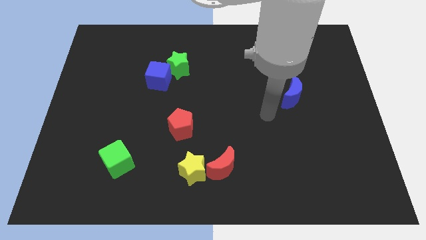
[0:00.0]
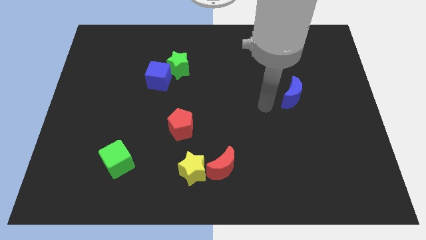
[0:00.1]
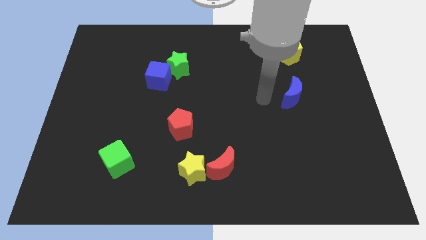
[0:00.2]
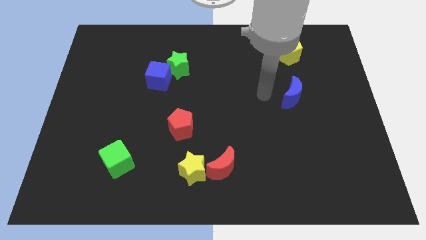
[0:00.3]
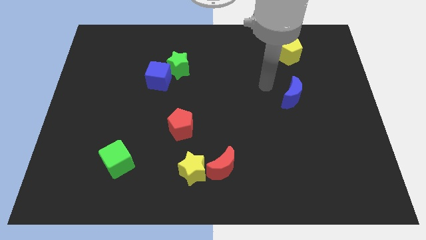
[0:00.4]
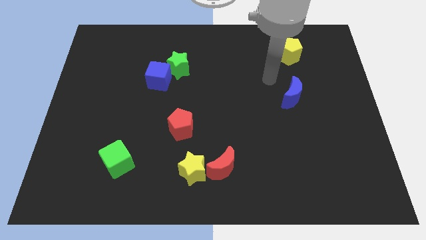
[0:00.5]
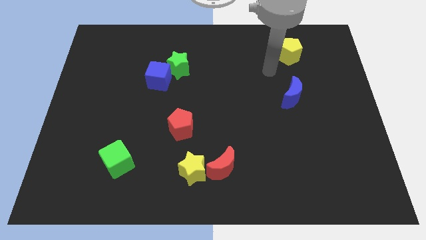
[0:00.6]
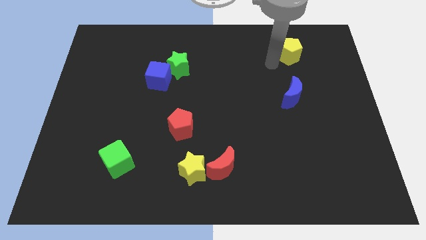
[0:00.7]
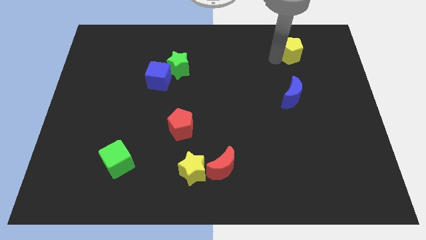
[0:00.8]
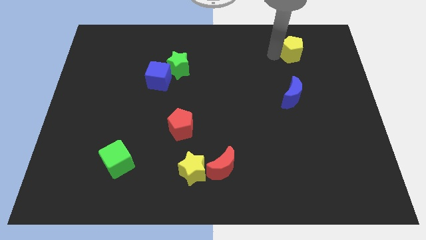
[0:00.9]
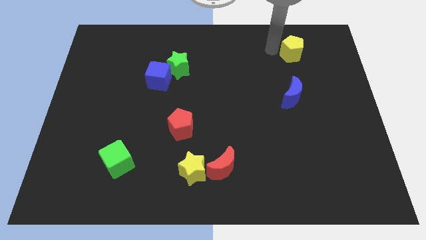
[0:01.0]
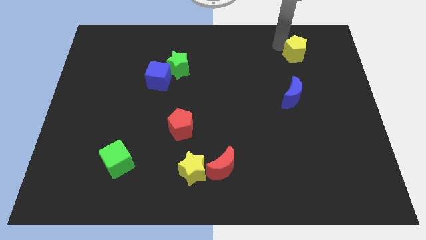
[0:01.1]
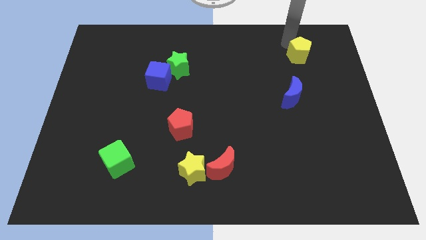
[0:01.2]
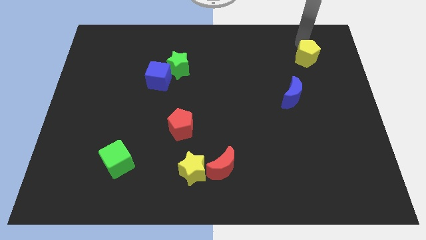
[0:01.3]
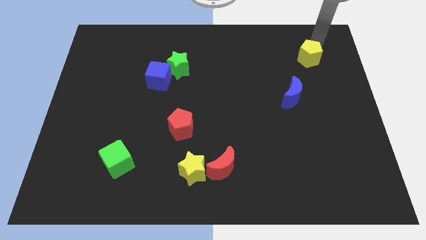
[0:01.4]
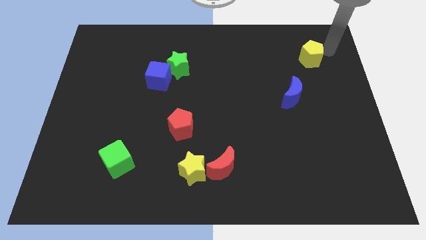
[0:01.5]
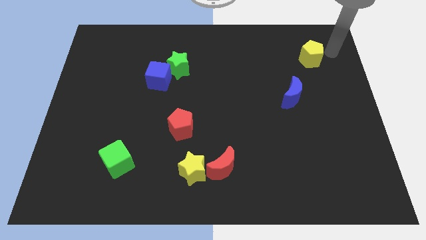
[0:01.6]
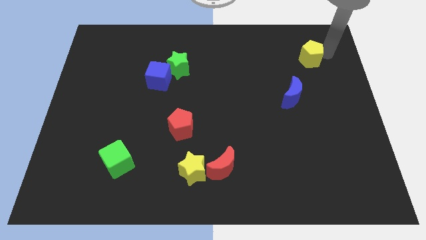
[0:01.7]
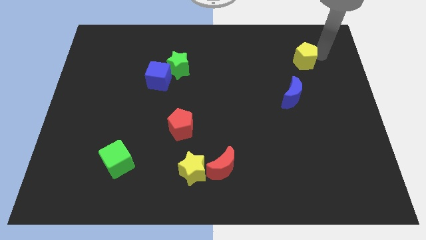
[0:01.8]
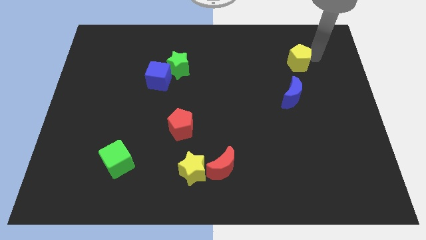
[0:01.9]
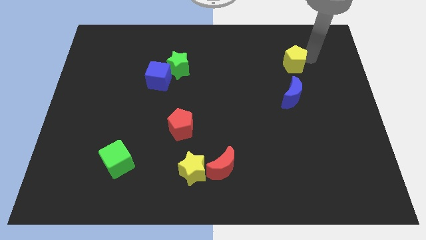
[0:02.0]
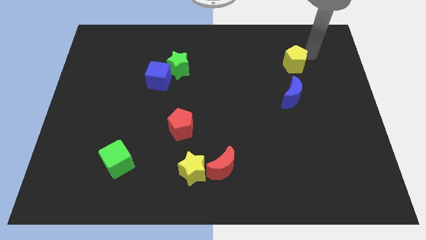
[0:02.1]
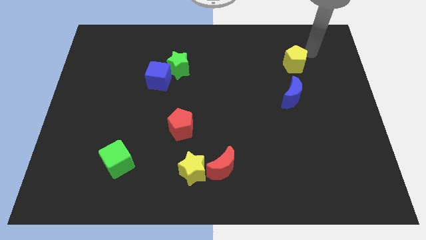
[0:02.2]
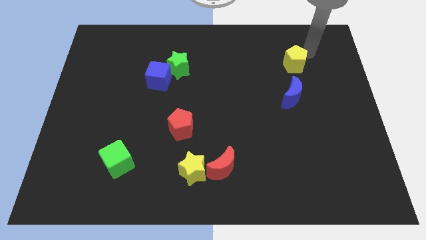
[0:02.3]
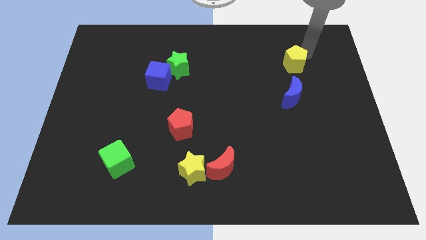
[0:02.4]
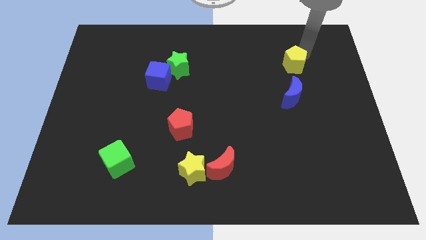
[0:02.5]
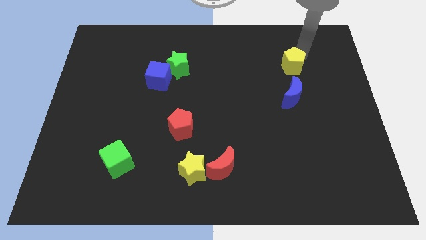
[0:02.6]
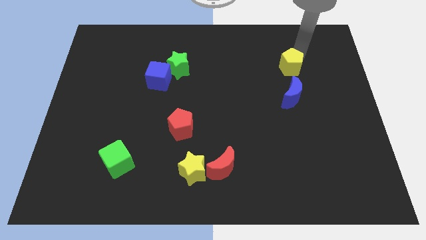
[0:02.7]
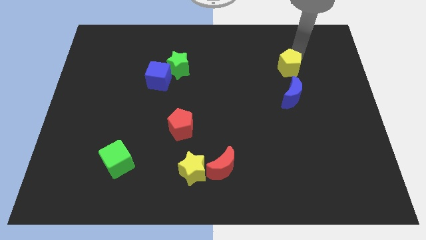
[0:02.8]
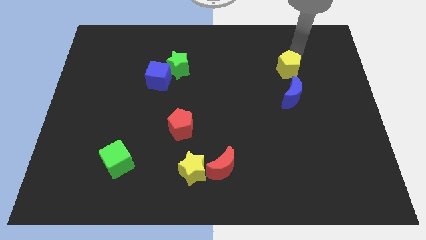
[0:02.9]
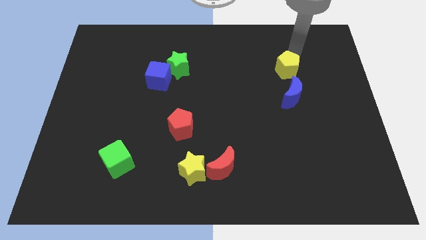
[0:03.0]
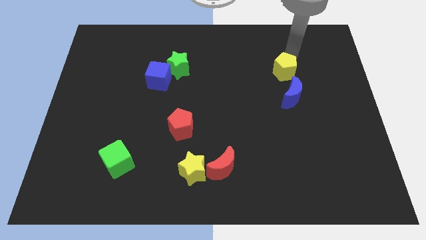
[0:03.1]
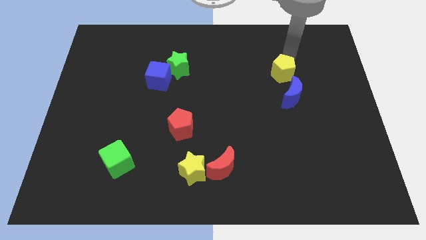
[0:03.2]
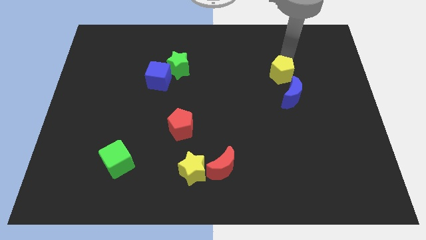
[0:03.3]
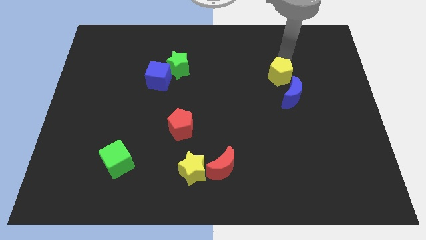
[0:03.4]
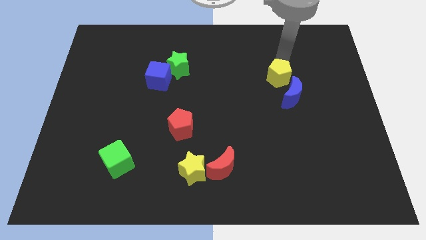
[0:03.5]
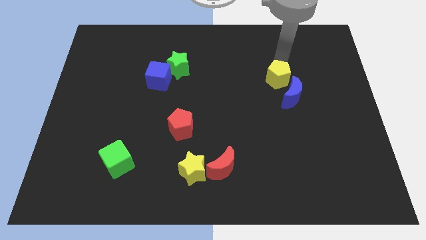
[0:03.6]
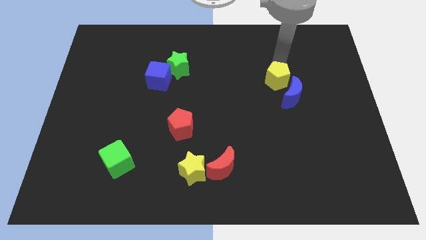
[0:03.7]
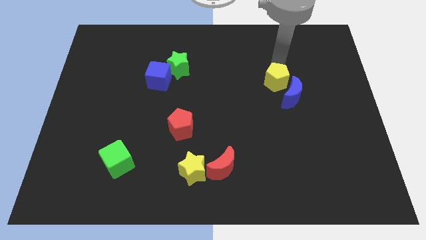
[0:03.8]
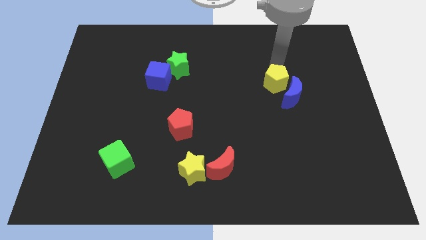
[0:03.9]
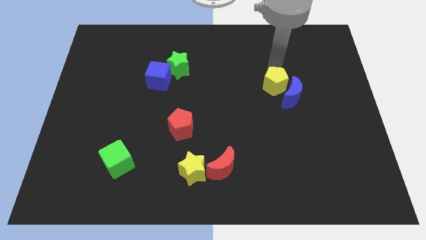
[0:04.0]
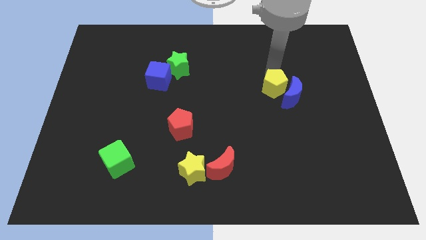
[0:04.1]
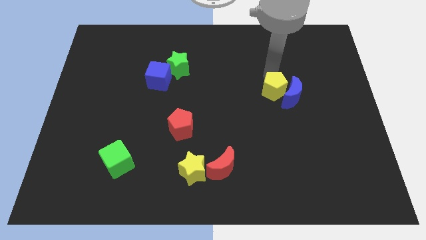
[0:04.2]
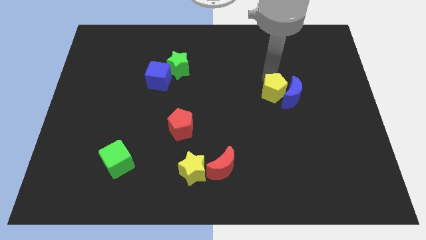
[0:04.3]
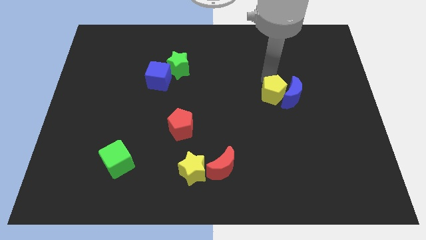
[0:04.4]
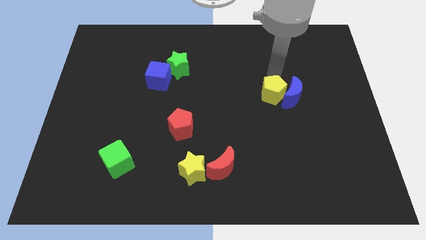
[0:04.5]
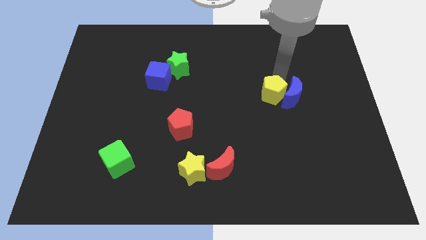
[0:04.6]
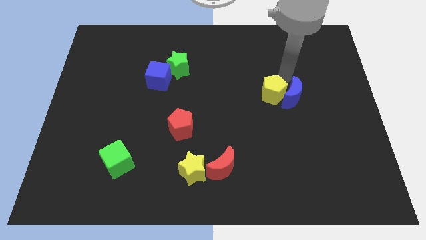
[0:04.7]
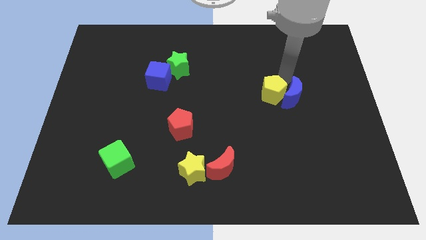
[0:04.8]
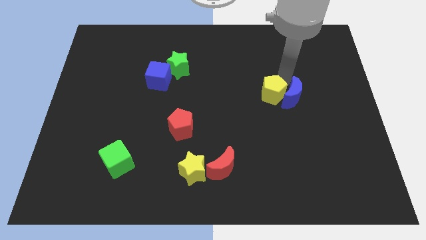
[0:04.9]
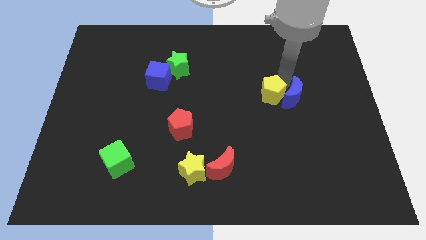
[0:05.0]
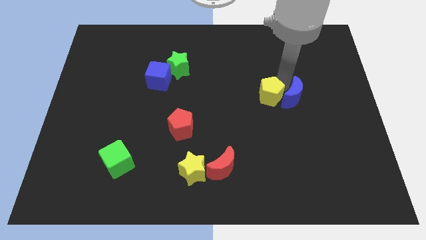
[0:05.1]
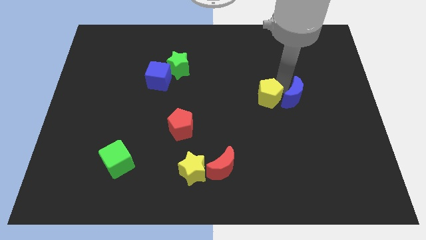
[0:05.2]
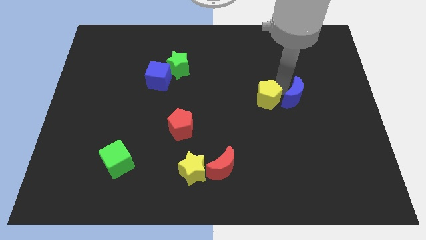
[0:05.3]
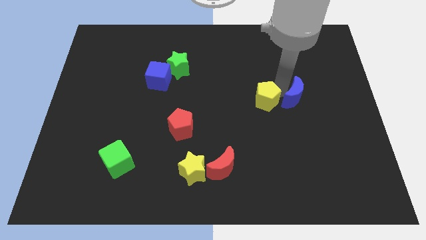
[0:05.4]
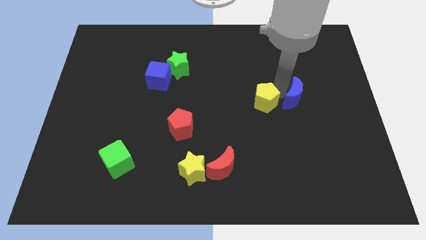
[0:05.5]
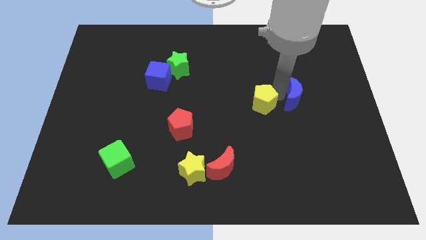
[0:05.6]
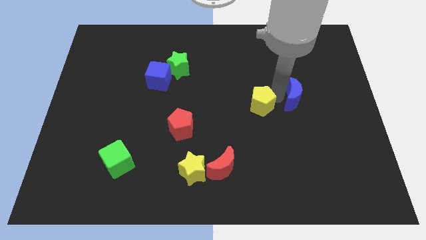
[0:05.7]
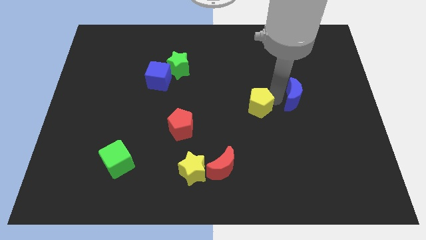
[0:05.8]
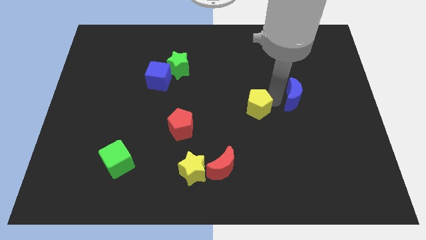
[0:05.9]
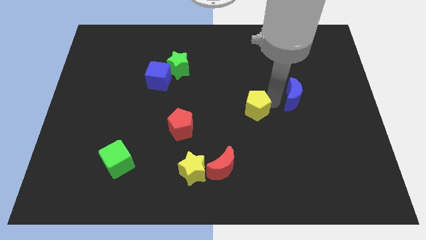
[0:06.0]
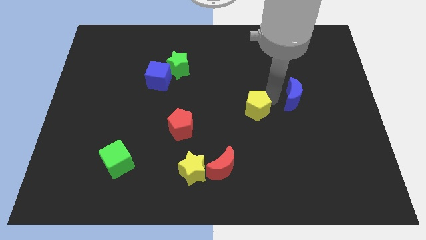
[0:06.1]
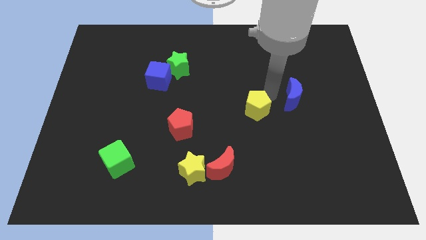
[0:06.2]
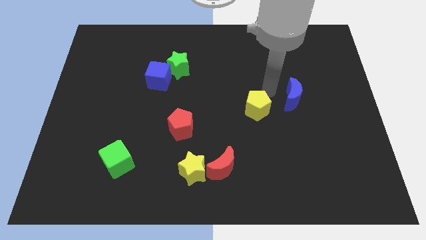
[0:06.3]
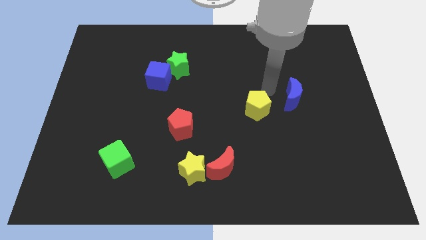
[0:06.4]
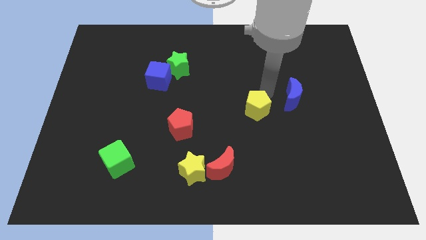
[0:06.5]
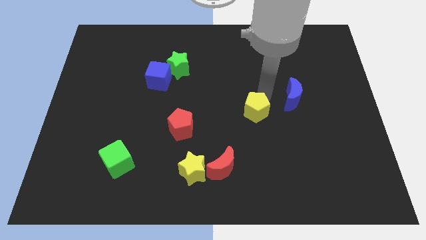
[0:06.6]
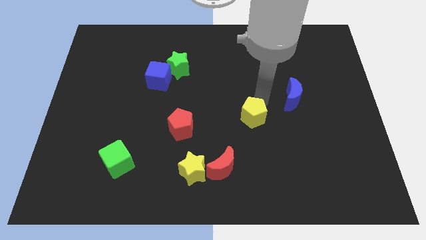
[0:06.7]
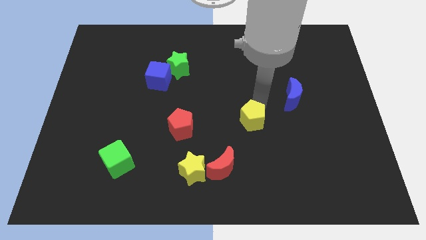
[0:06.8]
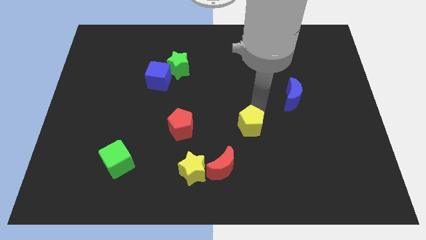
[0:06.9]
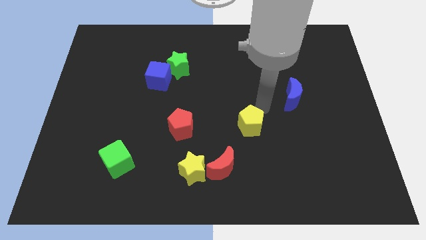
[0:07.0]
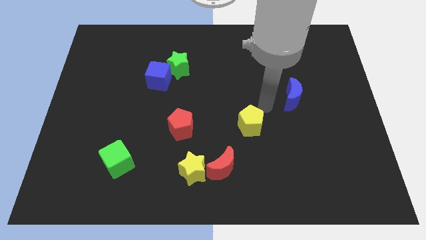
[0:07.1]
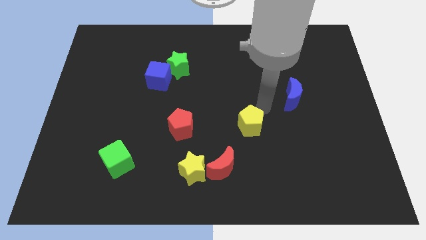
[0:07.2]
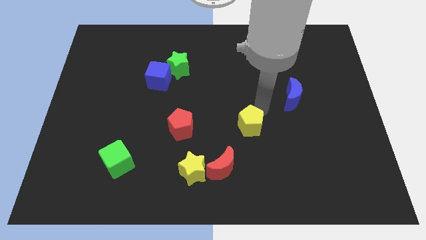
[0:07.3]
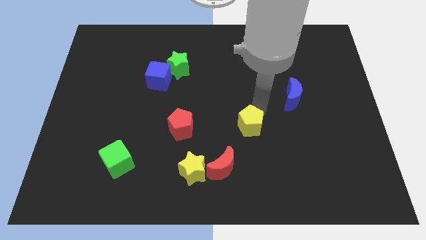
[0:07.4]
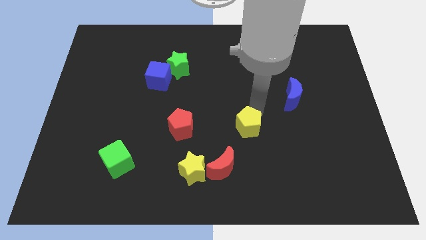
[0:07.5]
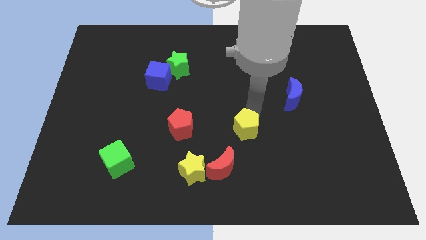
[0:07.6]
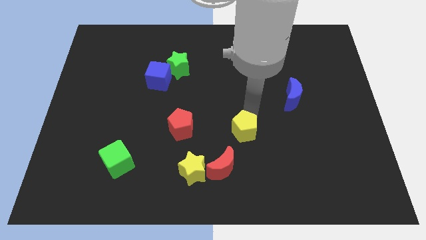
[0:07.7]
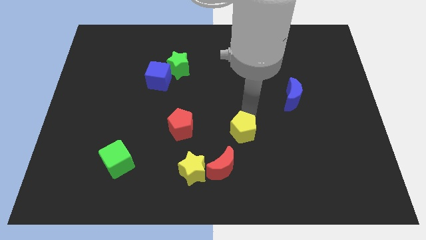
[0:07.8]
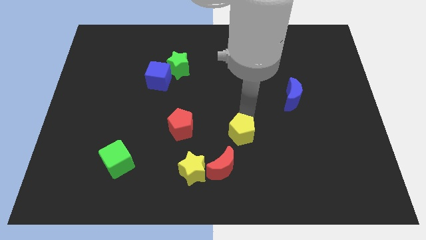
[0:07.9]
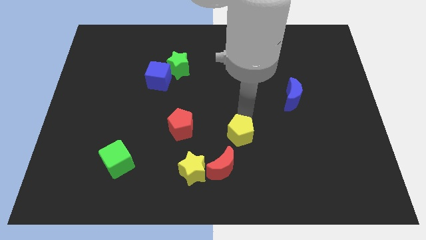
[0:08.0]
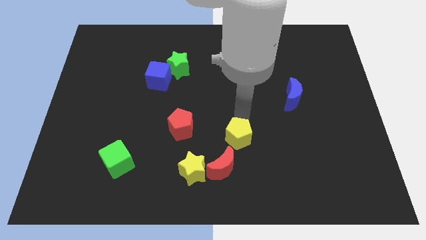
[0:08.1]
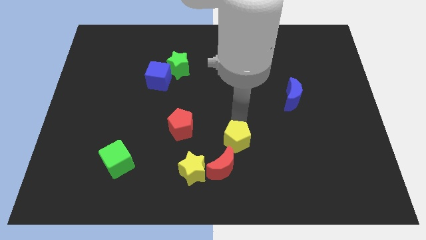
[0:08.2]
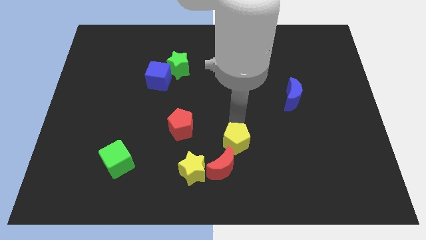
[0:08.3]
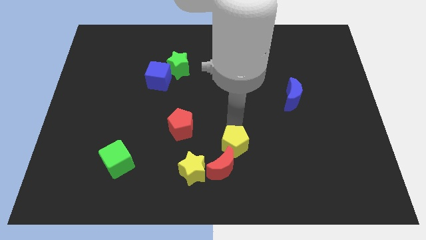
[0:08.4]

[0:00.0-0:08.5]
slide the yellow pentagon to the red moon
